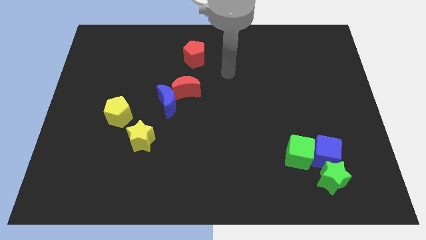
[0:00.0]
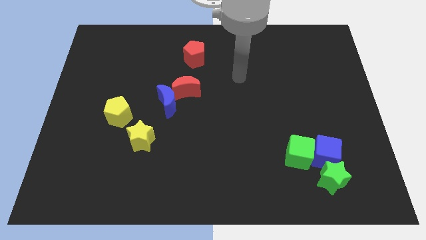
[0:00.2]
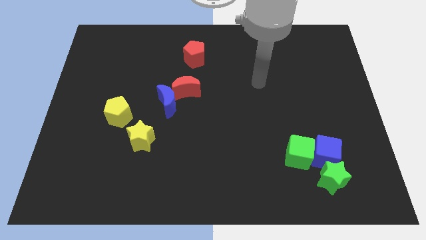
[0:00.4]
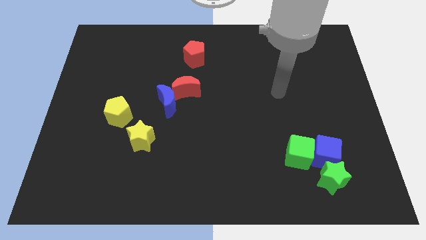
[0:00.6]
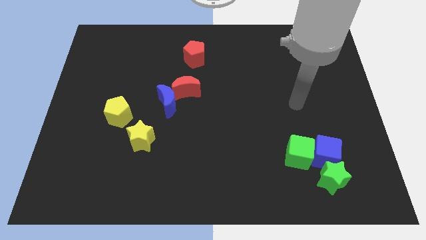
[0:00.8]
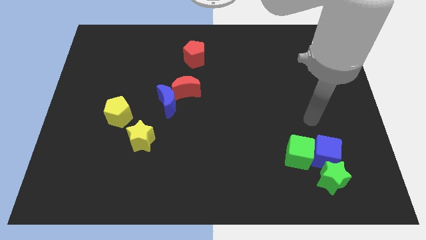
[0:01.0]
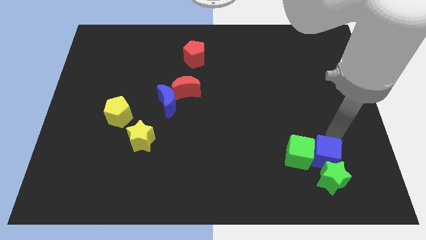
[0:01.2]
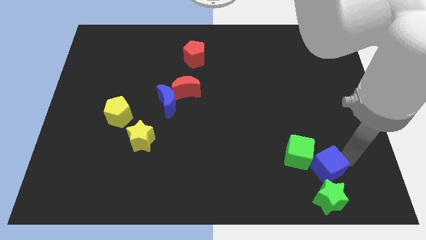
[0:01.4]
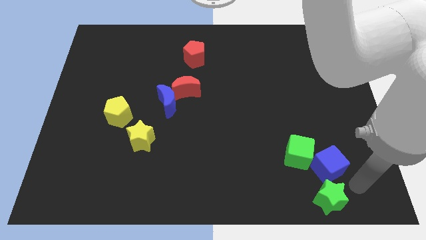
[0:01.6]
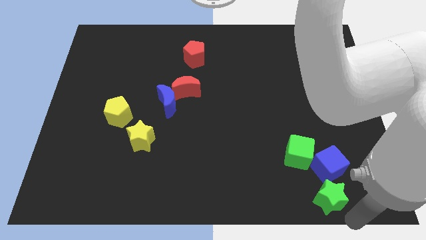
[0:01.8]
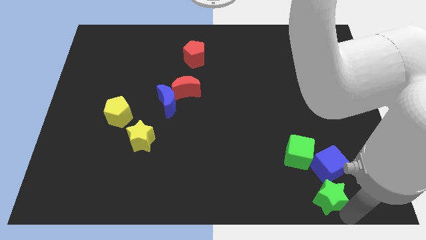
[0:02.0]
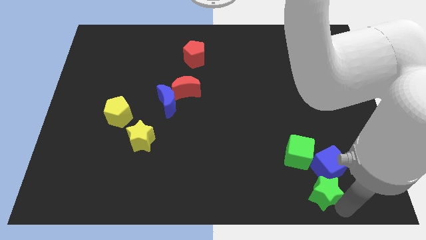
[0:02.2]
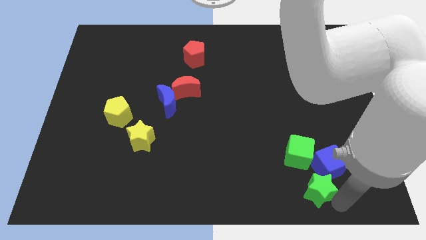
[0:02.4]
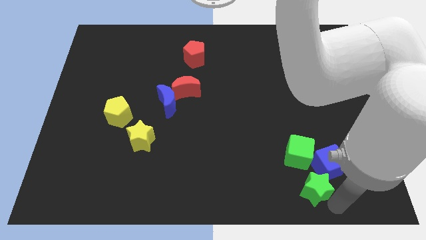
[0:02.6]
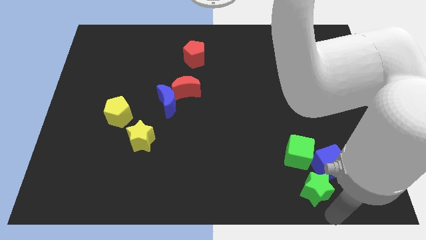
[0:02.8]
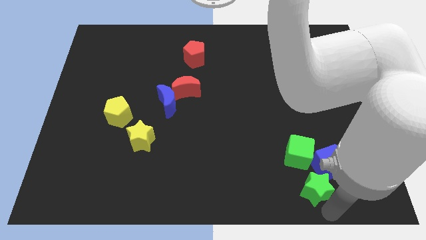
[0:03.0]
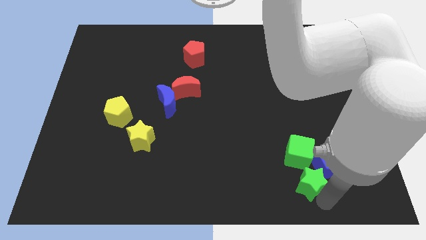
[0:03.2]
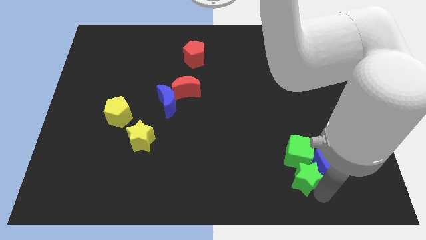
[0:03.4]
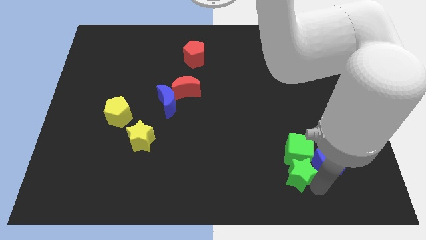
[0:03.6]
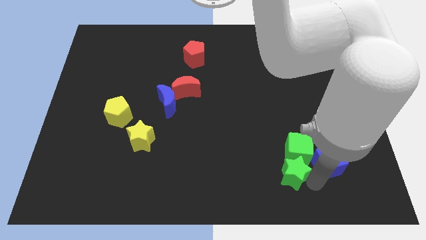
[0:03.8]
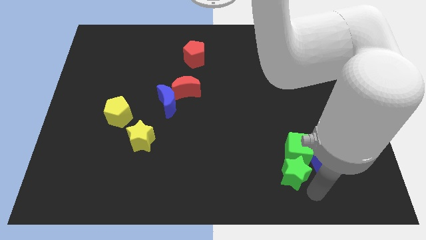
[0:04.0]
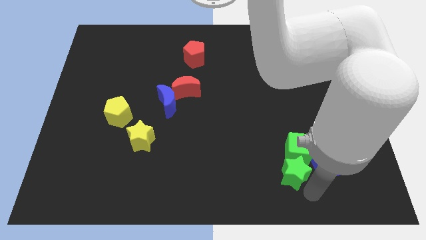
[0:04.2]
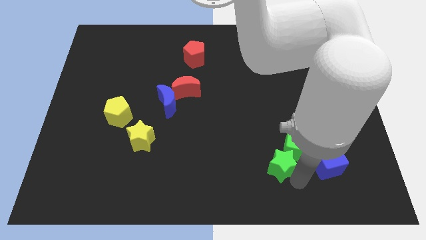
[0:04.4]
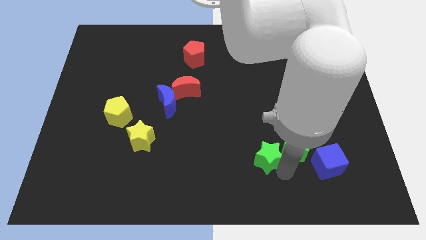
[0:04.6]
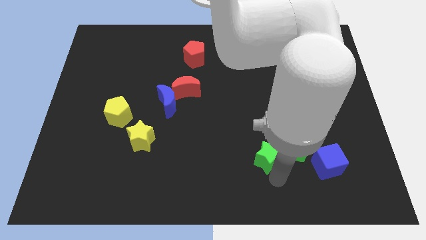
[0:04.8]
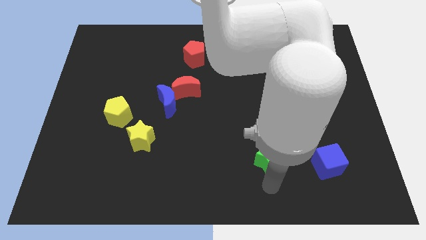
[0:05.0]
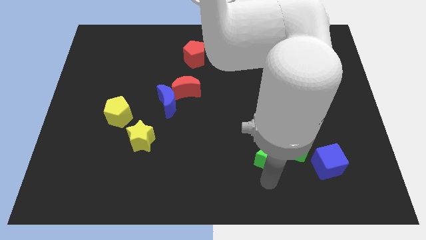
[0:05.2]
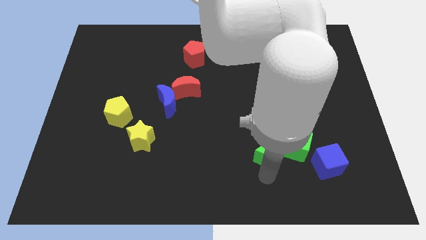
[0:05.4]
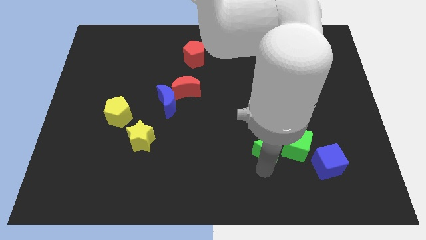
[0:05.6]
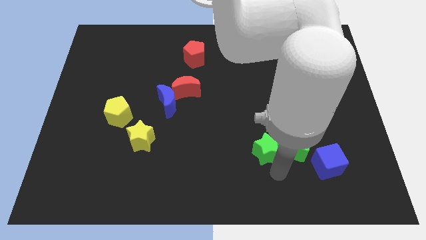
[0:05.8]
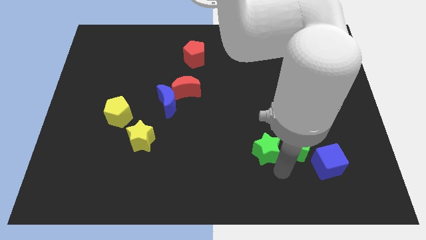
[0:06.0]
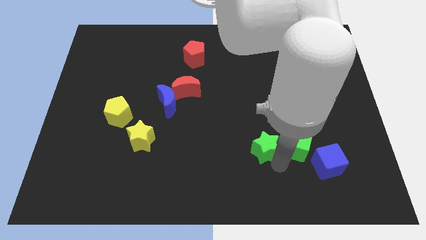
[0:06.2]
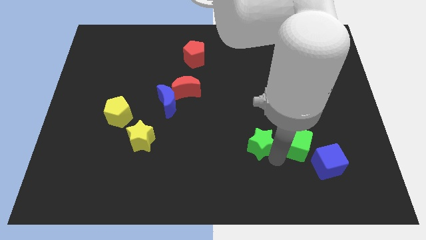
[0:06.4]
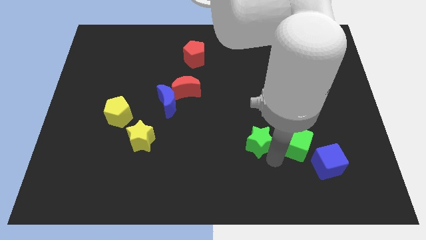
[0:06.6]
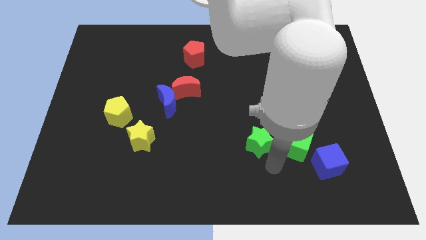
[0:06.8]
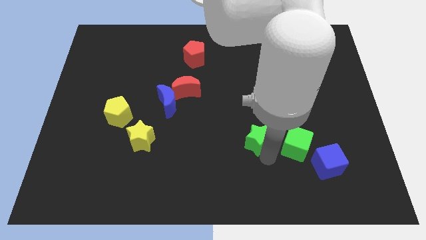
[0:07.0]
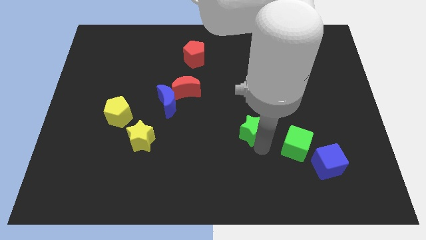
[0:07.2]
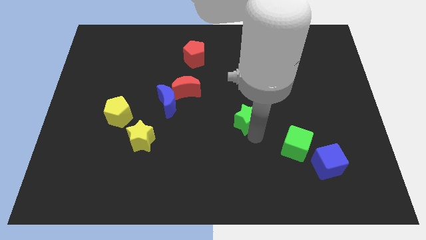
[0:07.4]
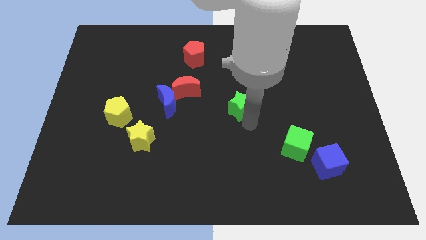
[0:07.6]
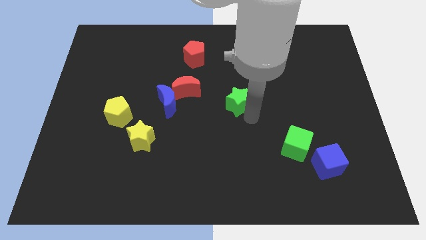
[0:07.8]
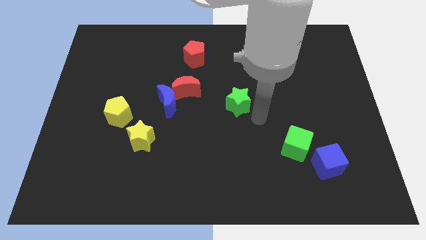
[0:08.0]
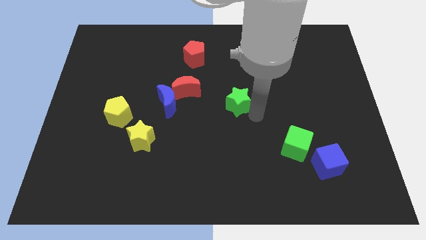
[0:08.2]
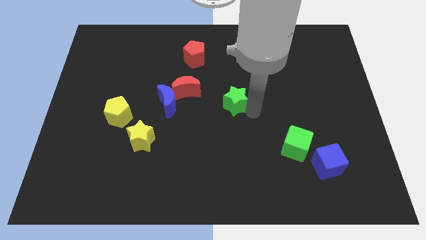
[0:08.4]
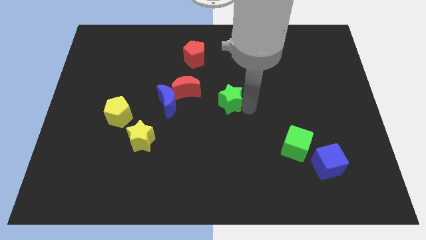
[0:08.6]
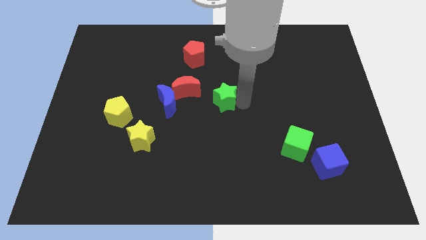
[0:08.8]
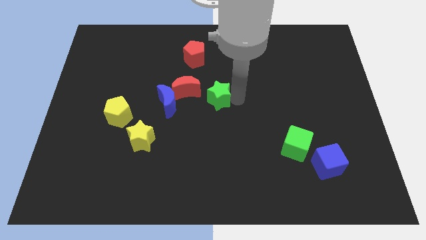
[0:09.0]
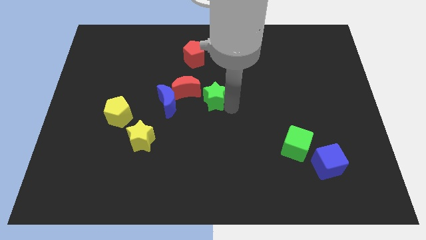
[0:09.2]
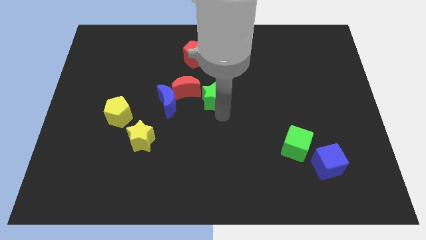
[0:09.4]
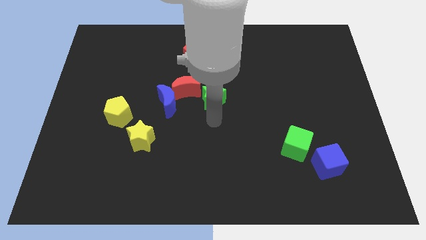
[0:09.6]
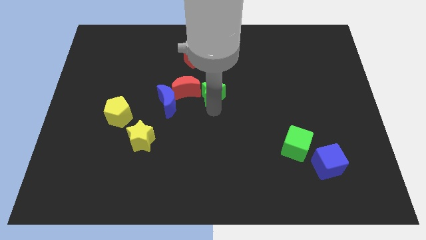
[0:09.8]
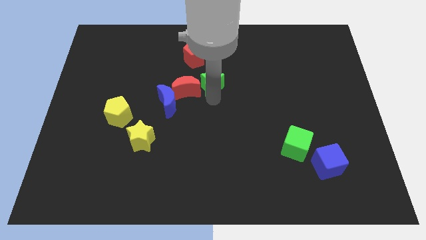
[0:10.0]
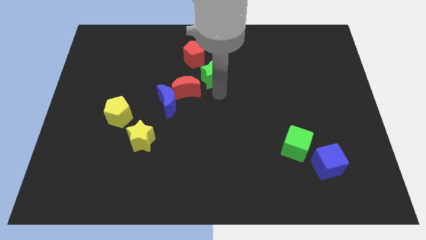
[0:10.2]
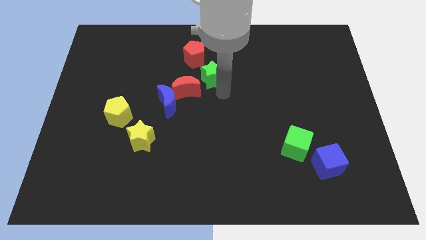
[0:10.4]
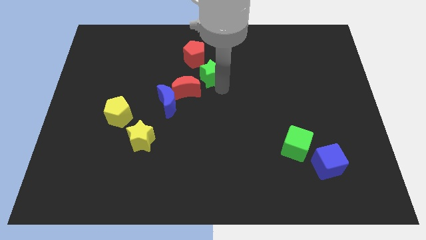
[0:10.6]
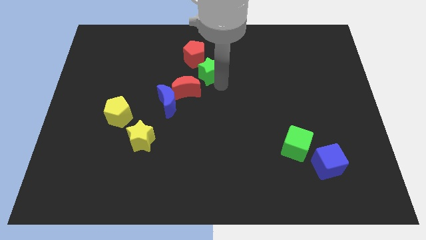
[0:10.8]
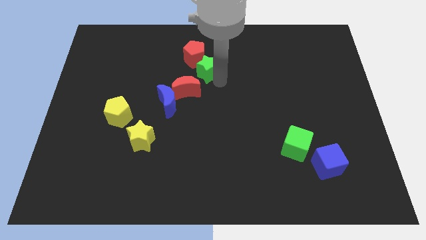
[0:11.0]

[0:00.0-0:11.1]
slide the green star close to the red pentagon

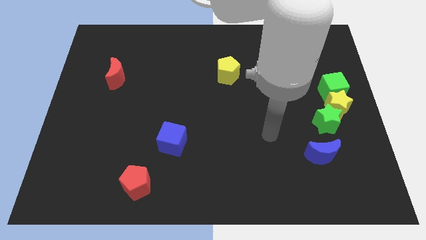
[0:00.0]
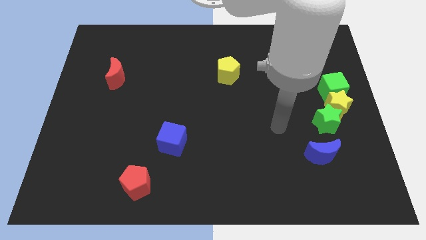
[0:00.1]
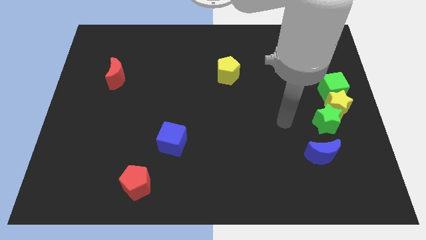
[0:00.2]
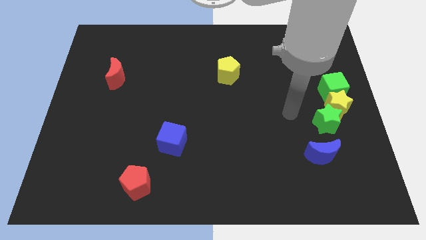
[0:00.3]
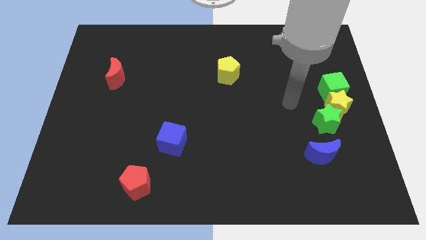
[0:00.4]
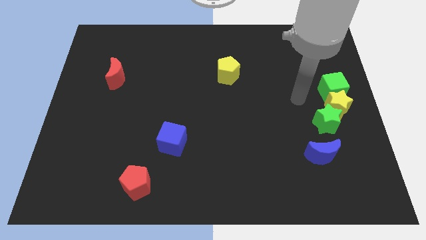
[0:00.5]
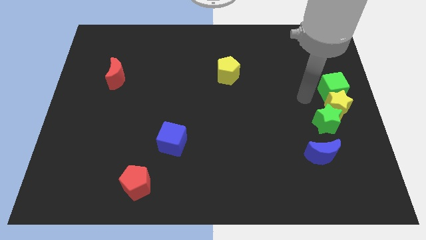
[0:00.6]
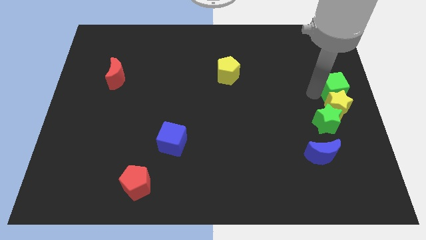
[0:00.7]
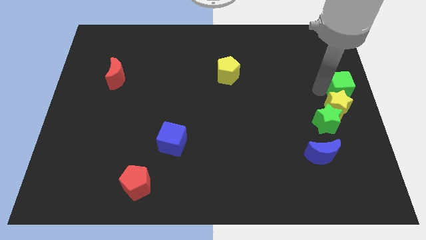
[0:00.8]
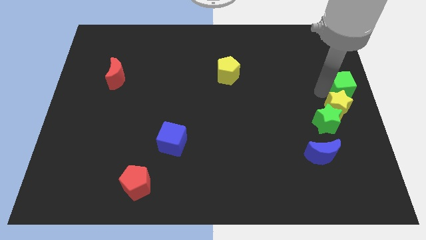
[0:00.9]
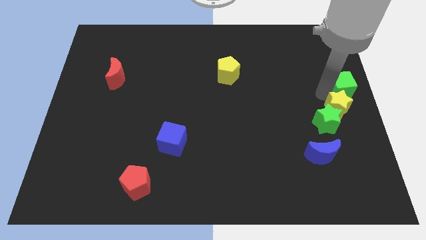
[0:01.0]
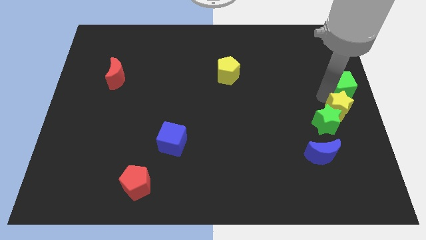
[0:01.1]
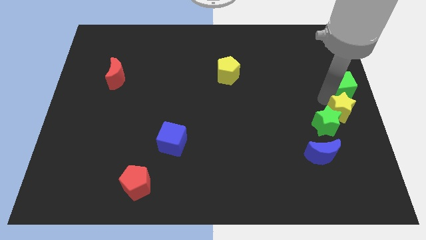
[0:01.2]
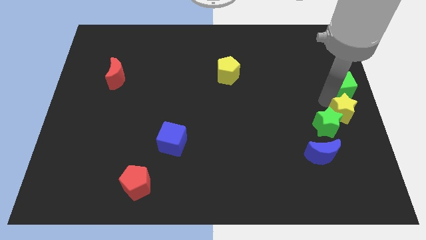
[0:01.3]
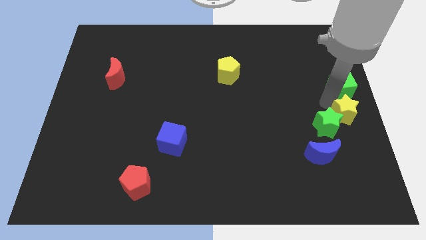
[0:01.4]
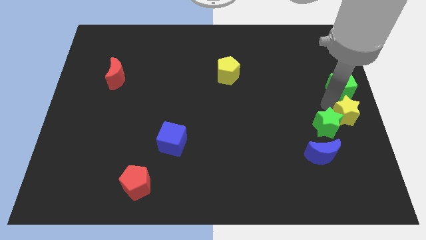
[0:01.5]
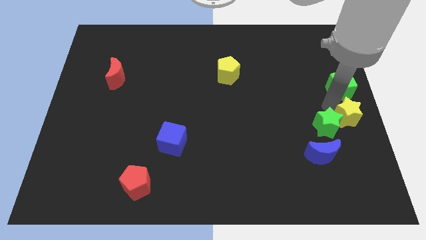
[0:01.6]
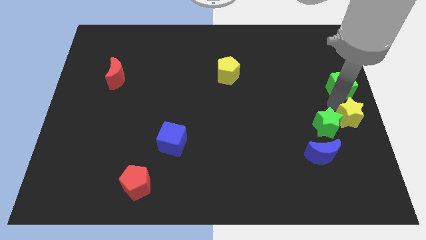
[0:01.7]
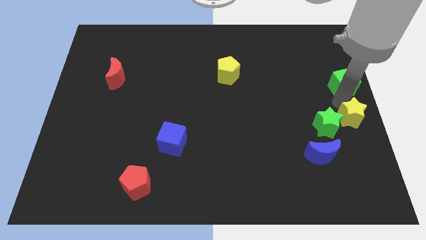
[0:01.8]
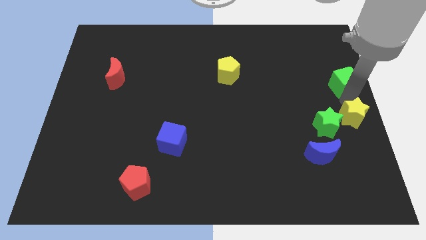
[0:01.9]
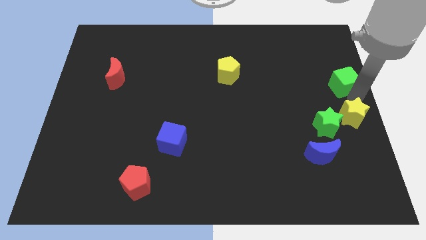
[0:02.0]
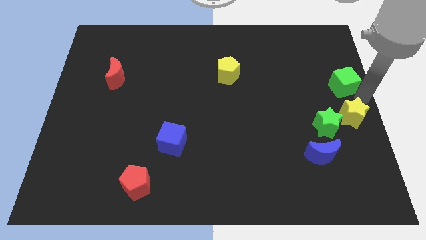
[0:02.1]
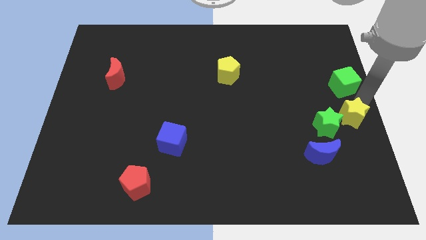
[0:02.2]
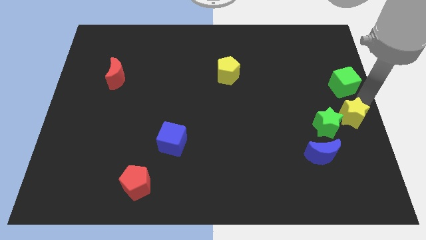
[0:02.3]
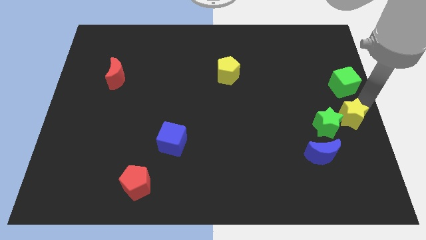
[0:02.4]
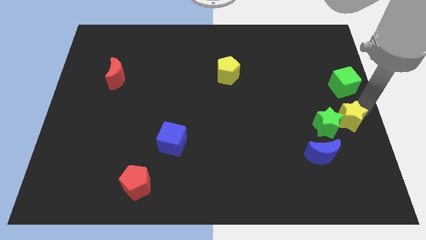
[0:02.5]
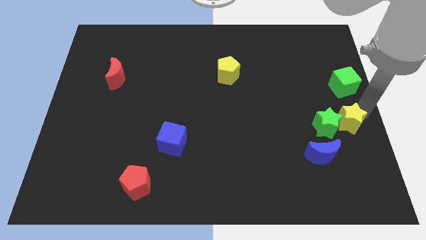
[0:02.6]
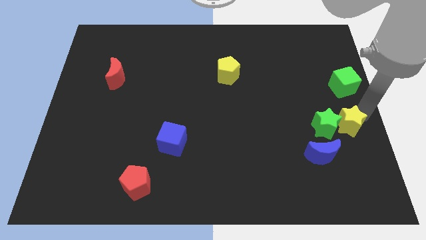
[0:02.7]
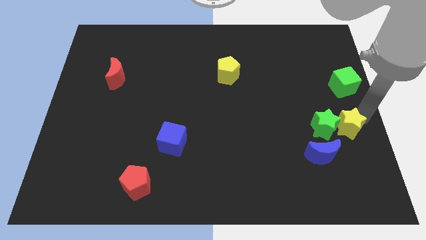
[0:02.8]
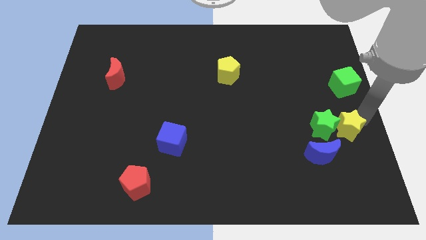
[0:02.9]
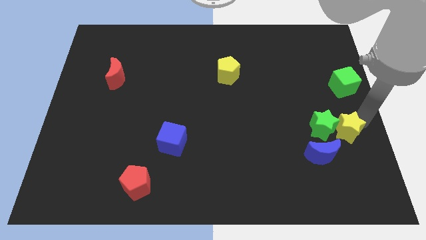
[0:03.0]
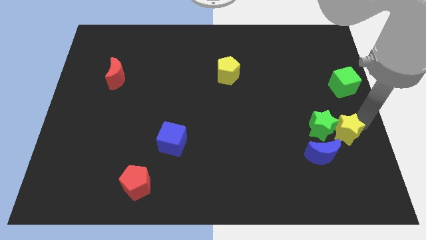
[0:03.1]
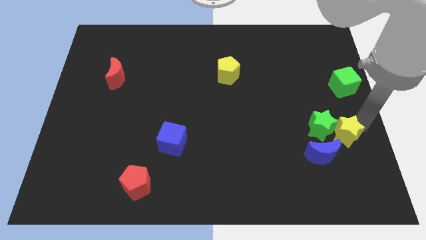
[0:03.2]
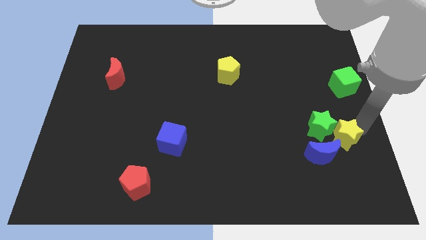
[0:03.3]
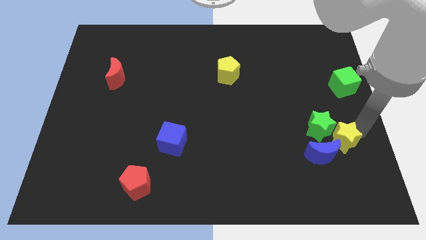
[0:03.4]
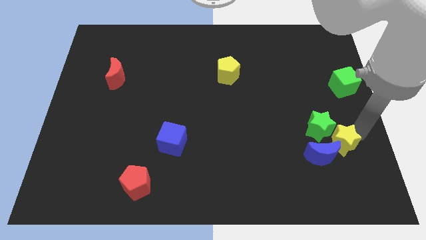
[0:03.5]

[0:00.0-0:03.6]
push the yellow star close to the blue moon
